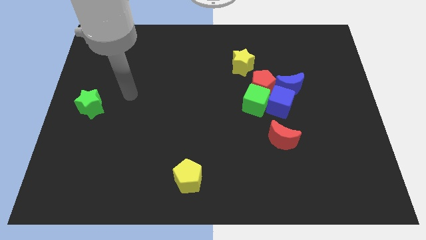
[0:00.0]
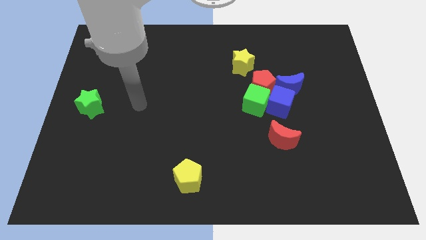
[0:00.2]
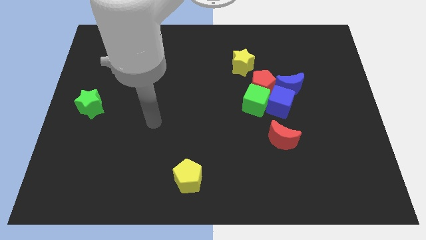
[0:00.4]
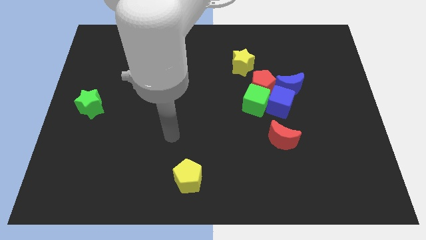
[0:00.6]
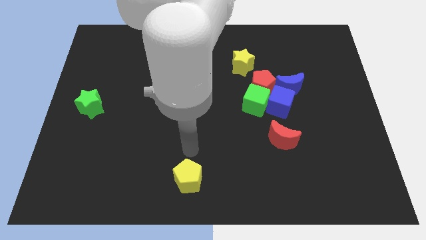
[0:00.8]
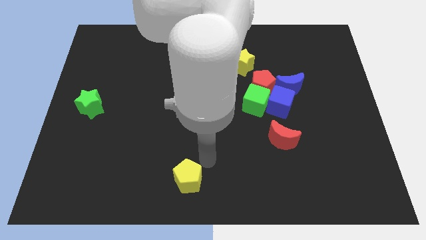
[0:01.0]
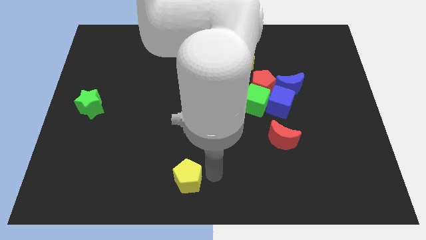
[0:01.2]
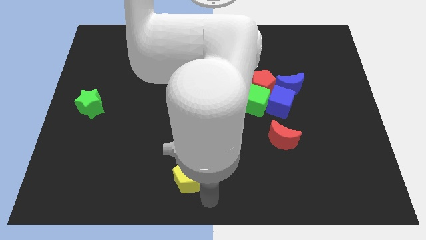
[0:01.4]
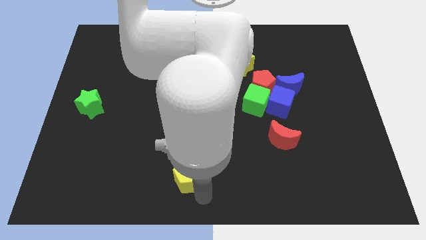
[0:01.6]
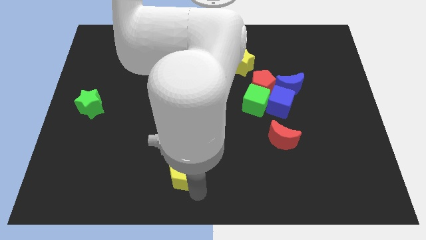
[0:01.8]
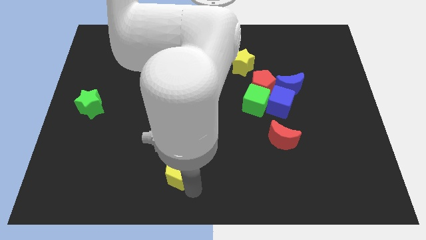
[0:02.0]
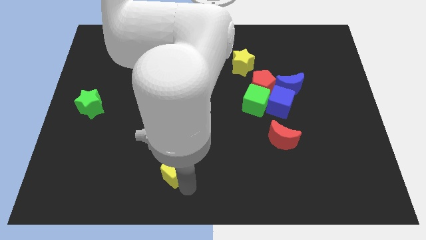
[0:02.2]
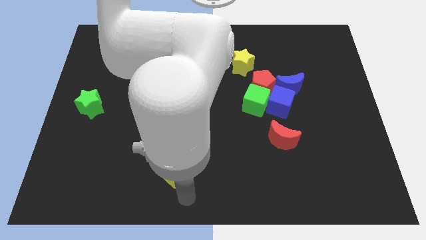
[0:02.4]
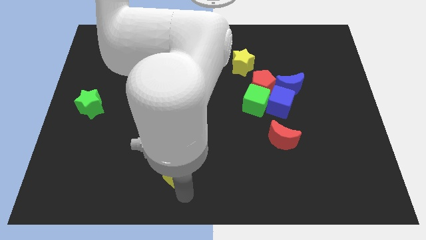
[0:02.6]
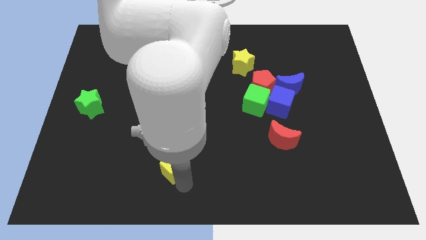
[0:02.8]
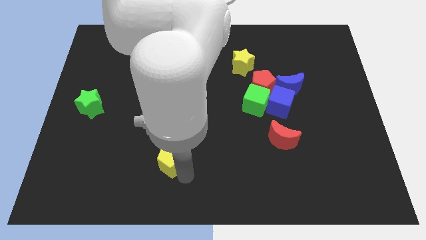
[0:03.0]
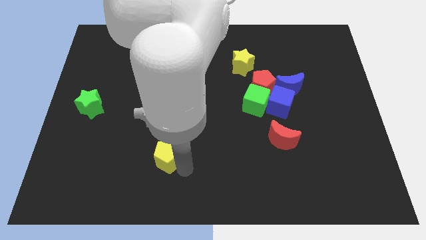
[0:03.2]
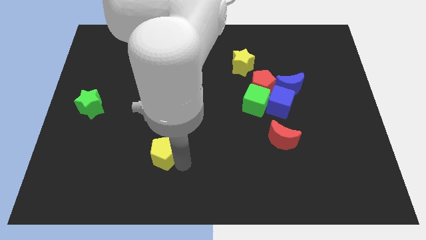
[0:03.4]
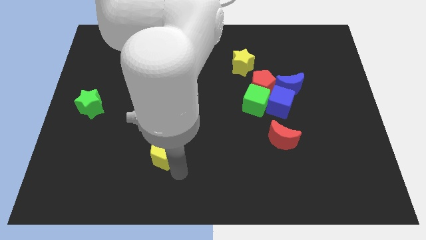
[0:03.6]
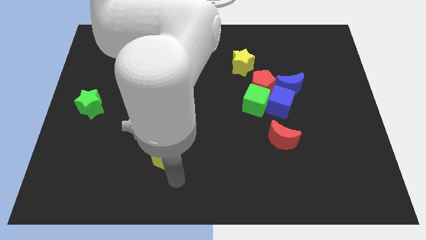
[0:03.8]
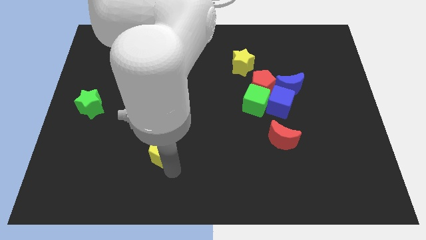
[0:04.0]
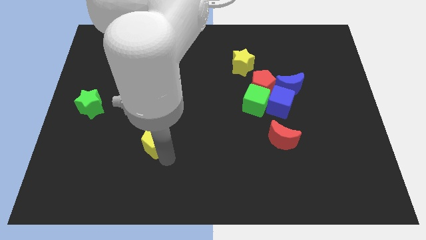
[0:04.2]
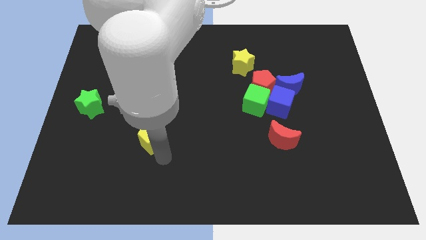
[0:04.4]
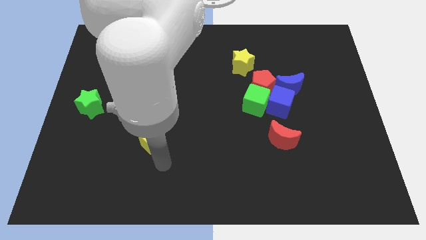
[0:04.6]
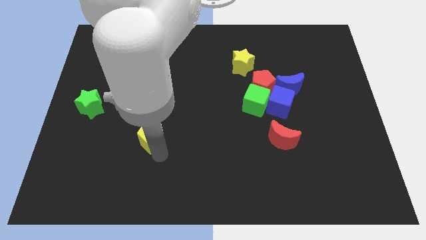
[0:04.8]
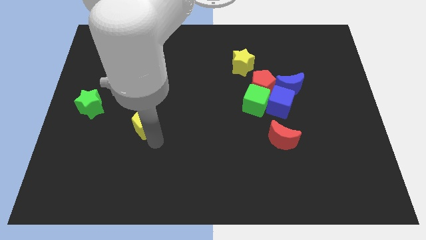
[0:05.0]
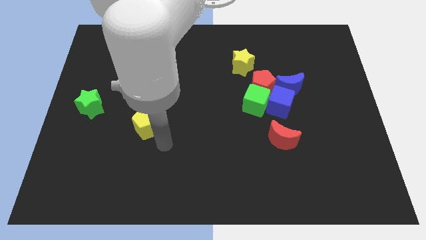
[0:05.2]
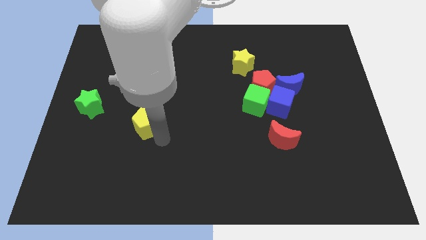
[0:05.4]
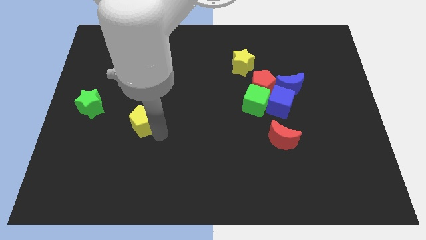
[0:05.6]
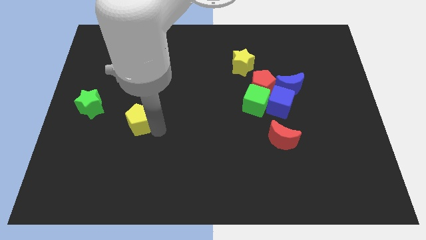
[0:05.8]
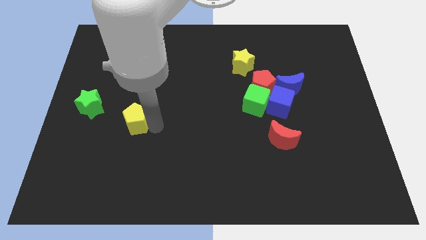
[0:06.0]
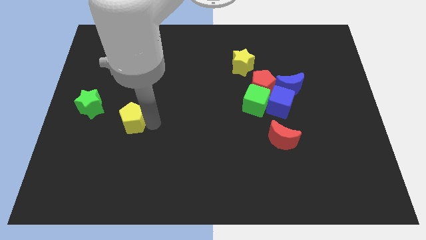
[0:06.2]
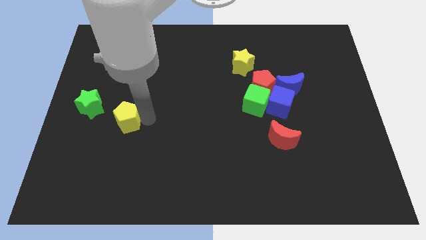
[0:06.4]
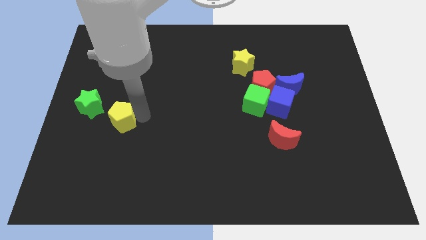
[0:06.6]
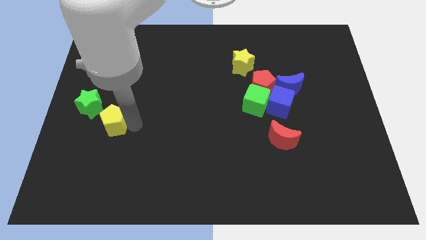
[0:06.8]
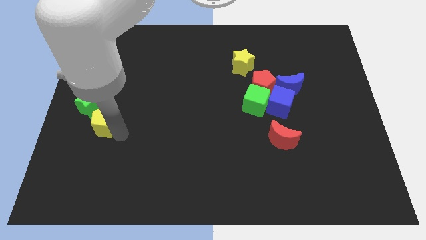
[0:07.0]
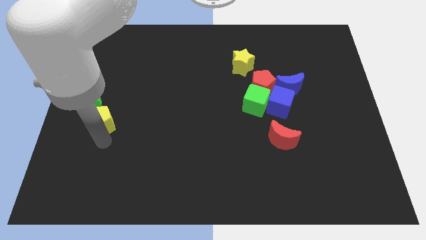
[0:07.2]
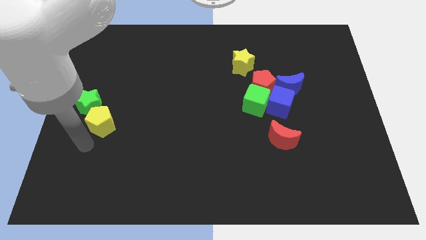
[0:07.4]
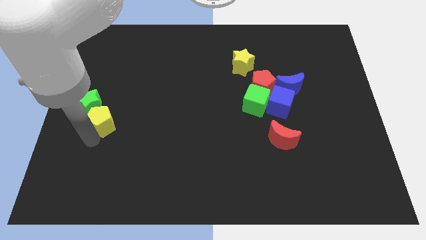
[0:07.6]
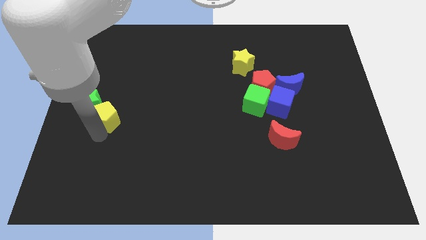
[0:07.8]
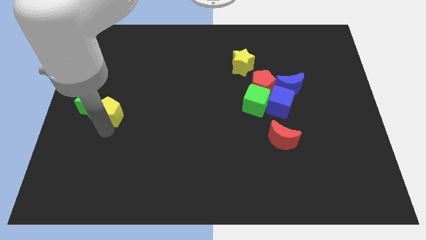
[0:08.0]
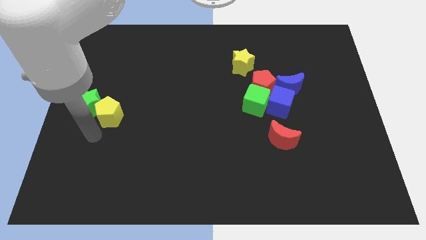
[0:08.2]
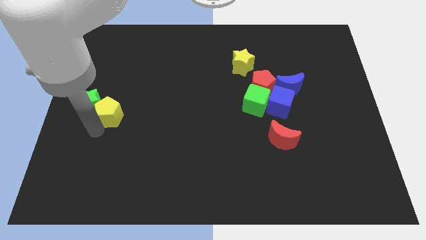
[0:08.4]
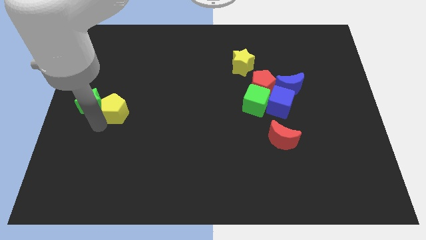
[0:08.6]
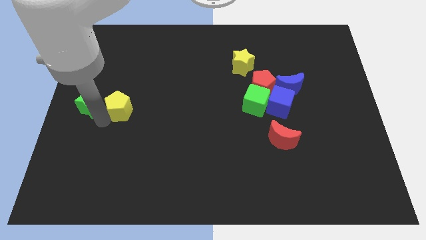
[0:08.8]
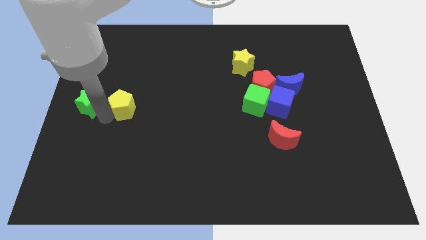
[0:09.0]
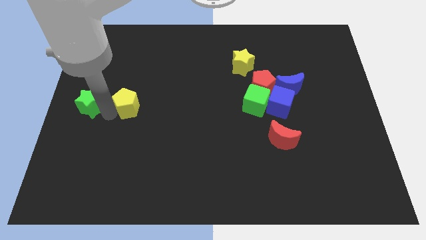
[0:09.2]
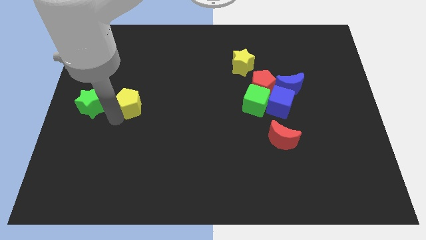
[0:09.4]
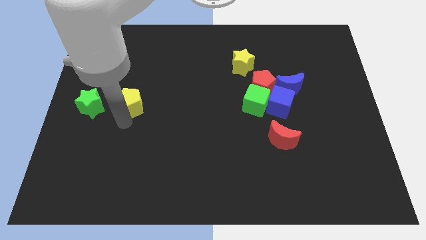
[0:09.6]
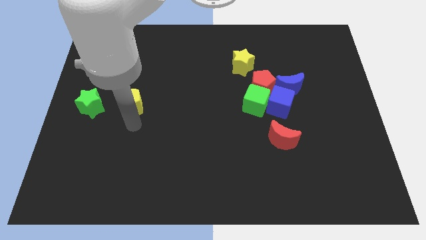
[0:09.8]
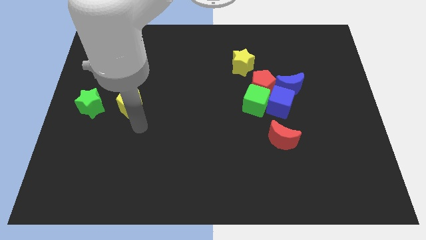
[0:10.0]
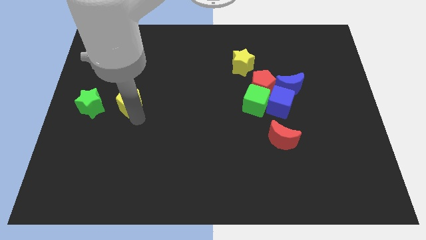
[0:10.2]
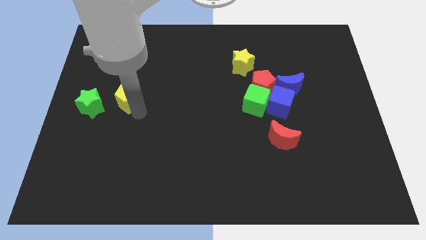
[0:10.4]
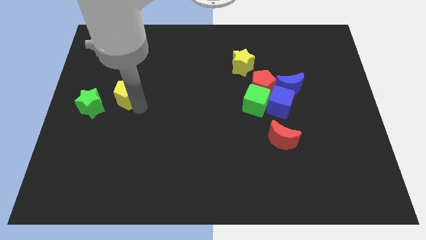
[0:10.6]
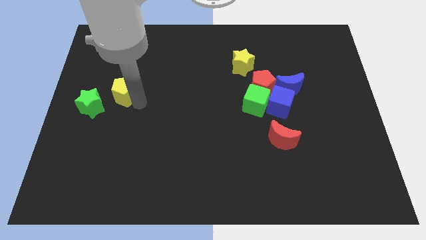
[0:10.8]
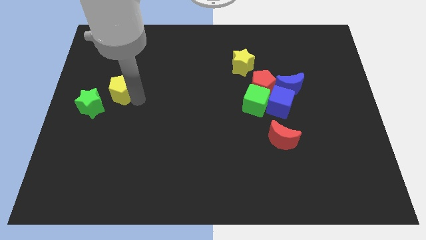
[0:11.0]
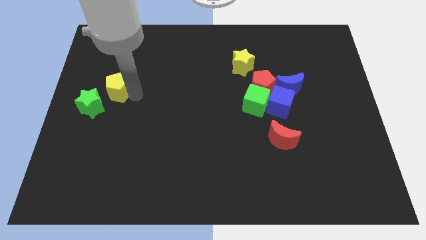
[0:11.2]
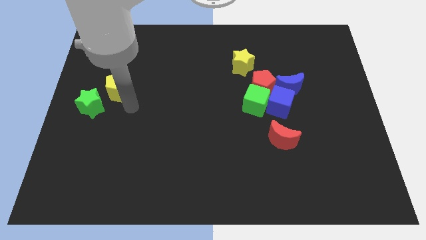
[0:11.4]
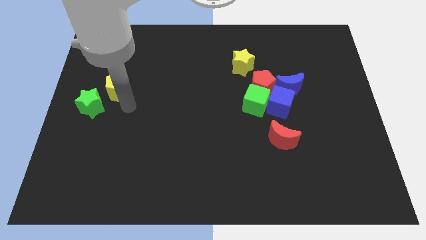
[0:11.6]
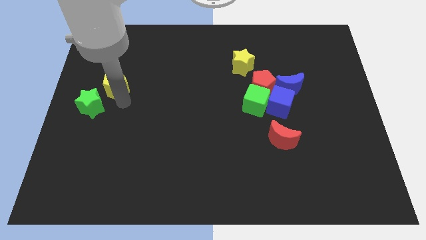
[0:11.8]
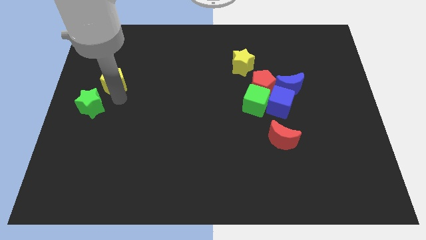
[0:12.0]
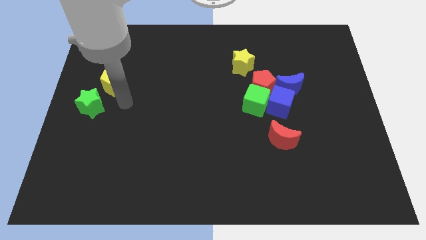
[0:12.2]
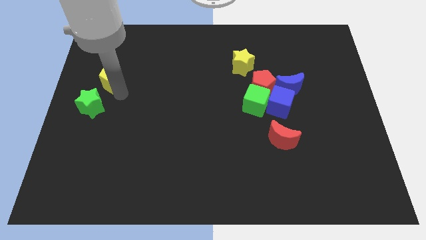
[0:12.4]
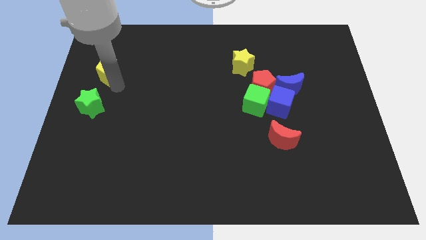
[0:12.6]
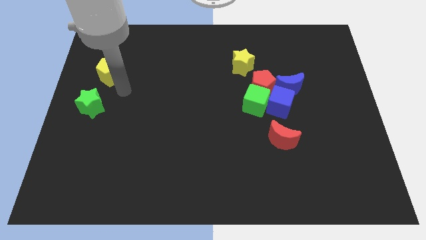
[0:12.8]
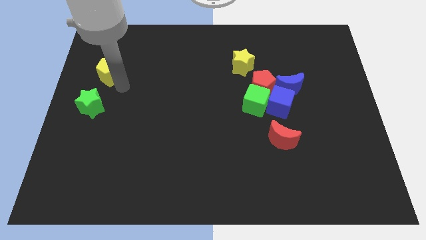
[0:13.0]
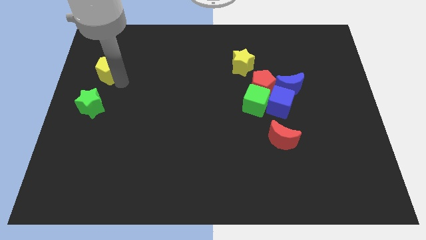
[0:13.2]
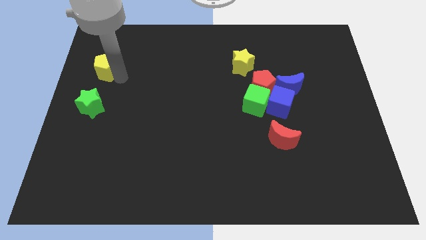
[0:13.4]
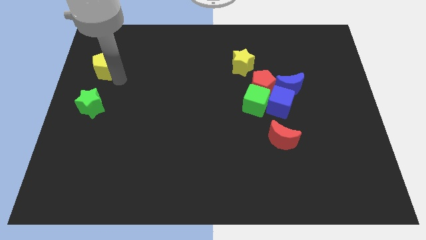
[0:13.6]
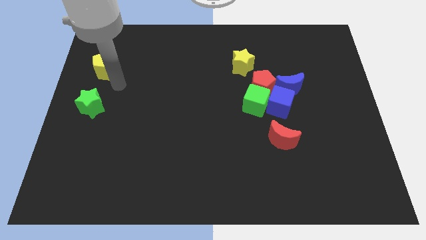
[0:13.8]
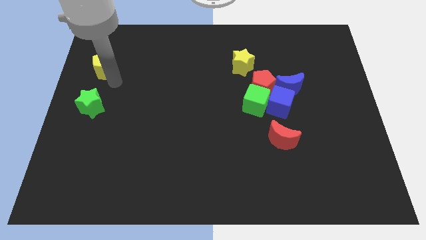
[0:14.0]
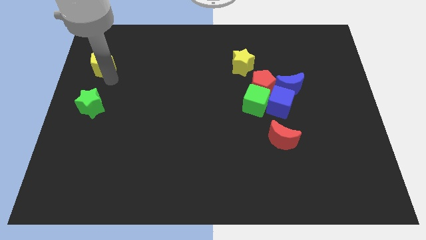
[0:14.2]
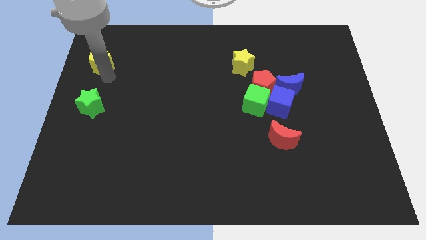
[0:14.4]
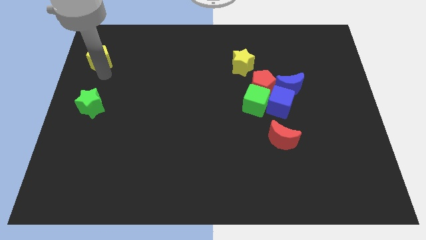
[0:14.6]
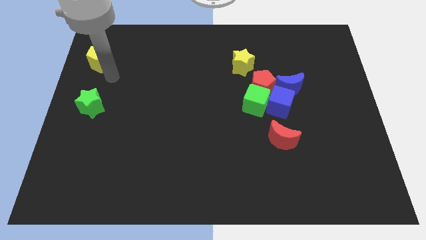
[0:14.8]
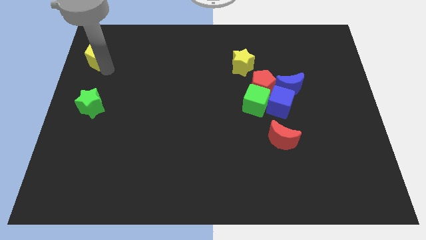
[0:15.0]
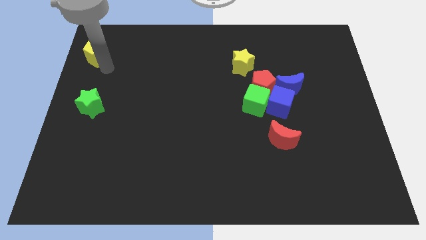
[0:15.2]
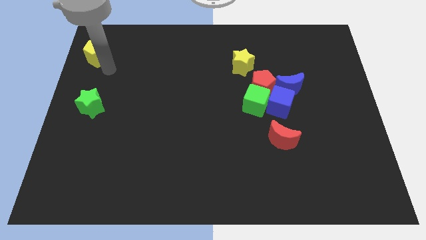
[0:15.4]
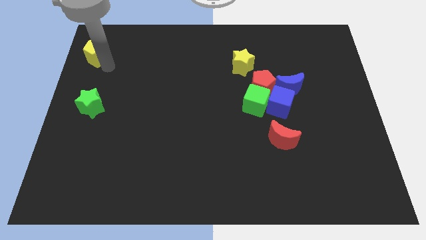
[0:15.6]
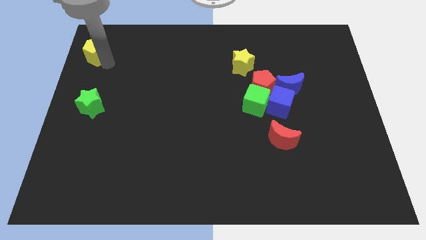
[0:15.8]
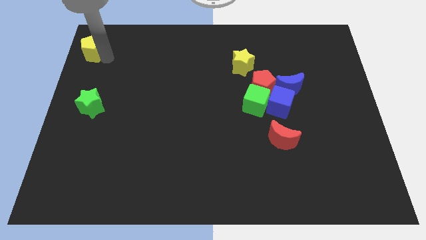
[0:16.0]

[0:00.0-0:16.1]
move the yellow pentagon to the upper left corner
